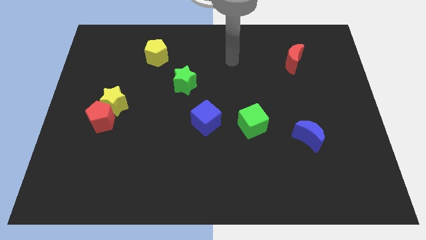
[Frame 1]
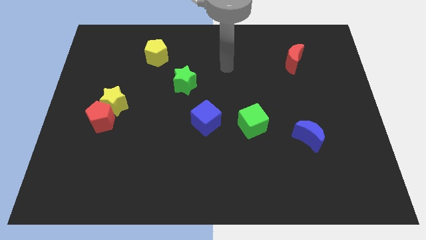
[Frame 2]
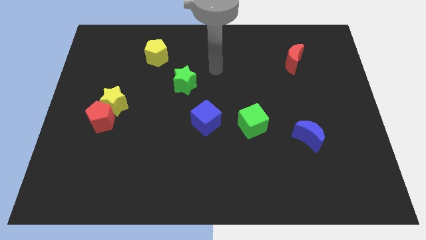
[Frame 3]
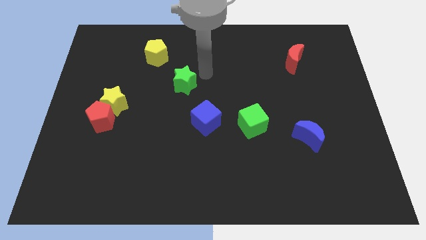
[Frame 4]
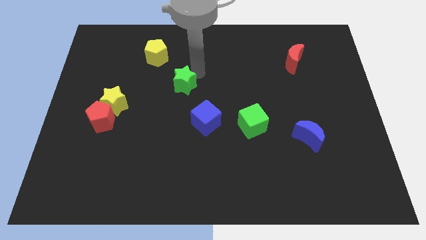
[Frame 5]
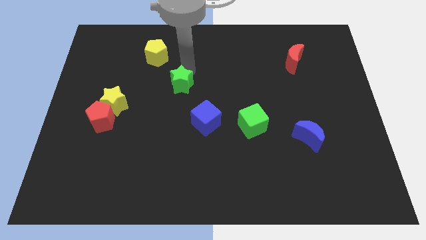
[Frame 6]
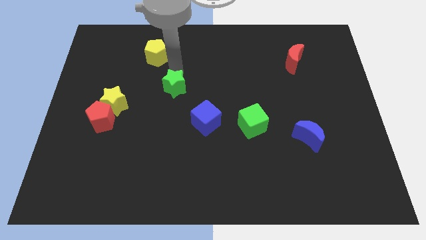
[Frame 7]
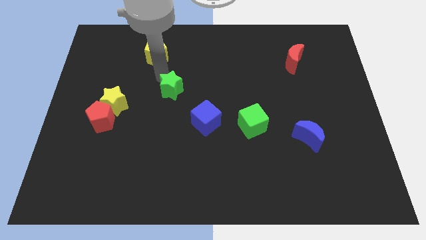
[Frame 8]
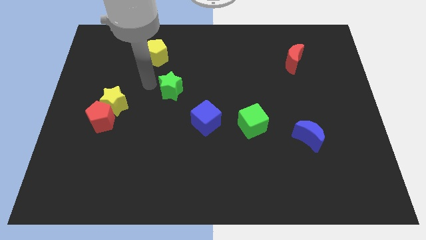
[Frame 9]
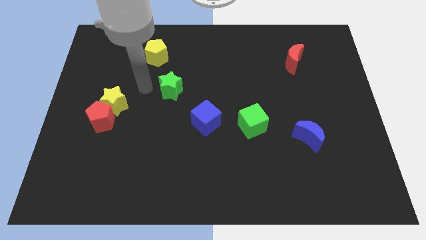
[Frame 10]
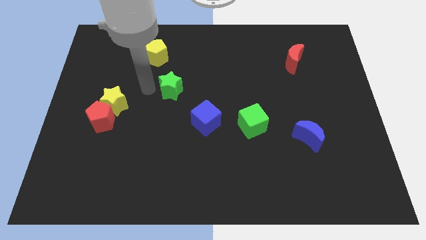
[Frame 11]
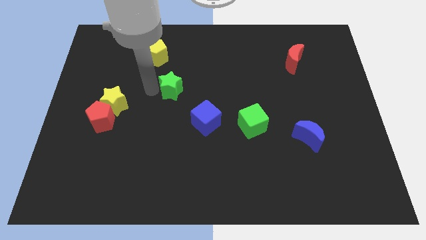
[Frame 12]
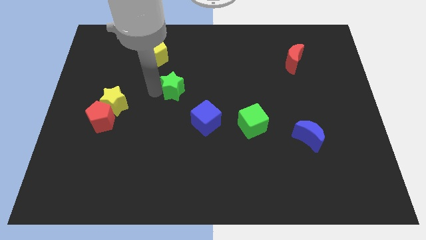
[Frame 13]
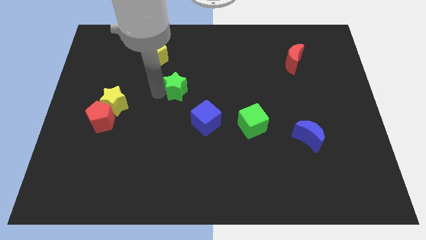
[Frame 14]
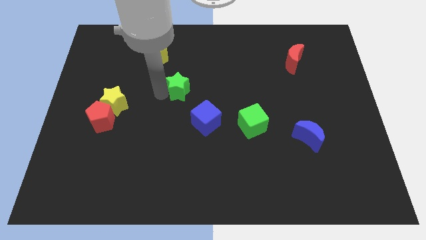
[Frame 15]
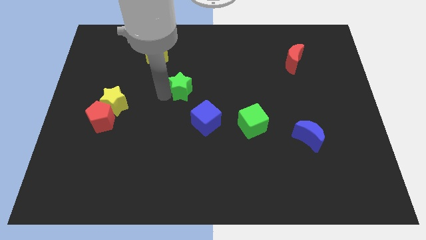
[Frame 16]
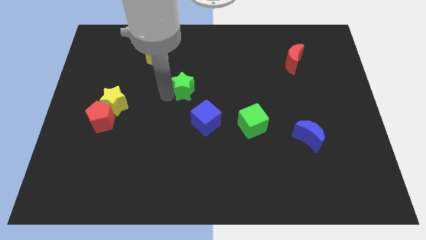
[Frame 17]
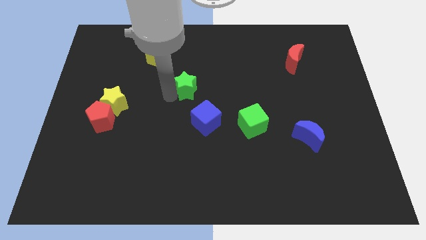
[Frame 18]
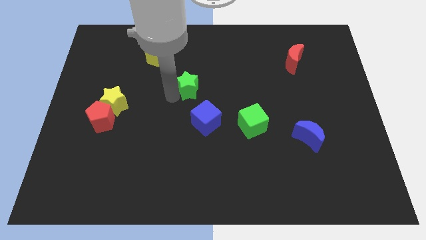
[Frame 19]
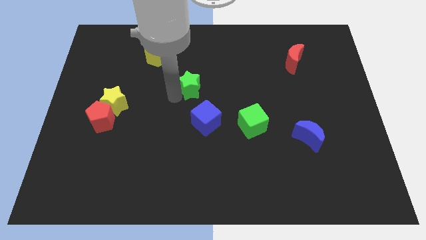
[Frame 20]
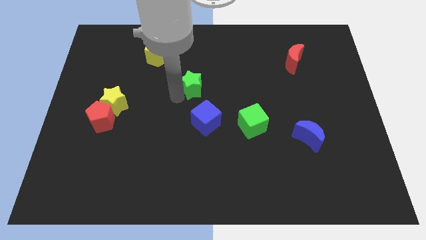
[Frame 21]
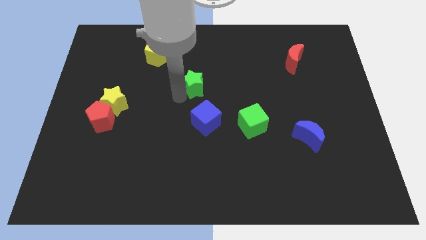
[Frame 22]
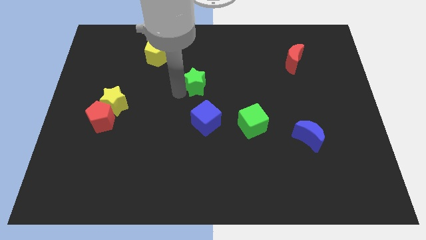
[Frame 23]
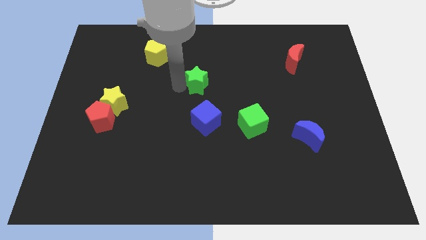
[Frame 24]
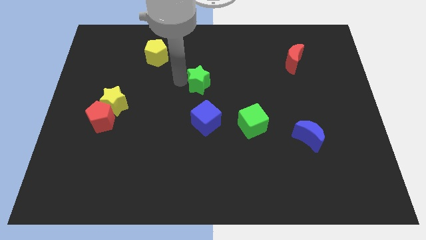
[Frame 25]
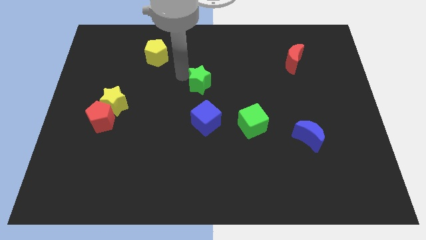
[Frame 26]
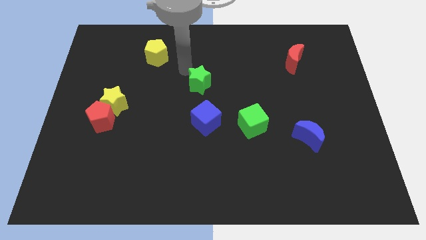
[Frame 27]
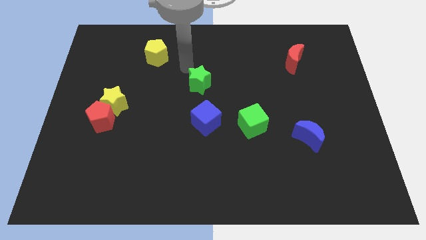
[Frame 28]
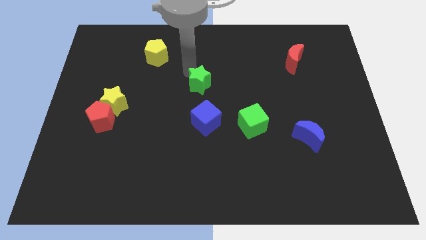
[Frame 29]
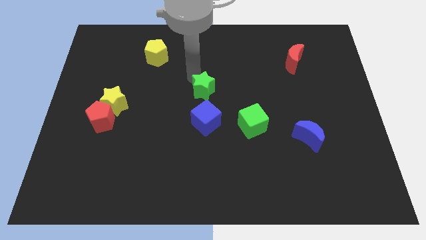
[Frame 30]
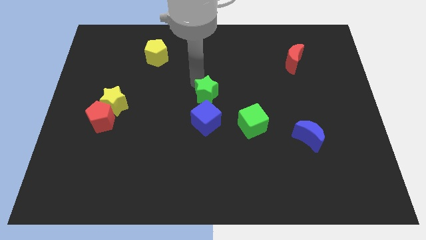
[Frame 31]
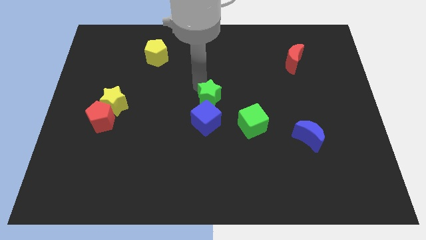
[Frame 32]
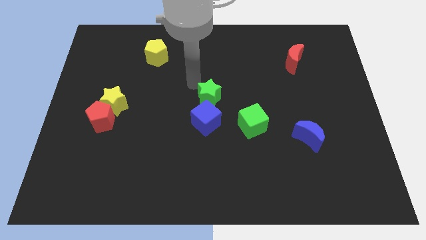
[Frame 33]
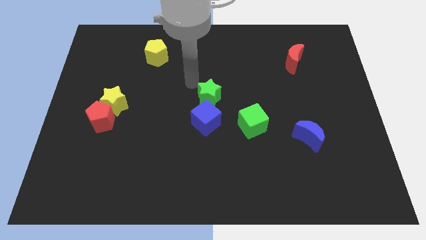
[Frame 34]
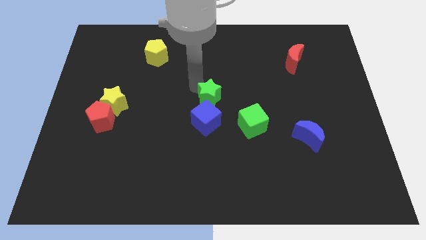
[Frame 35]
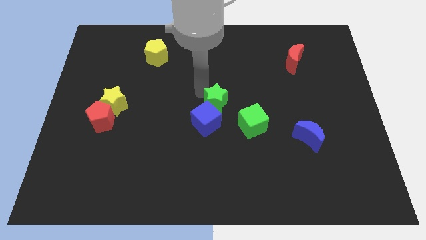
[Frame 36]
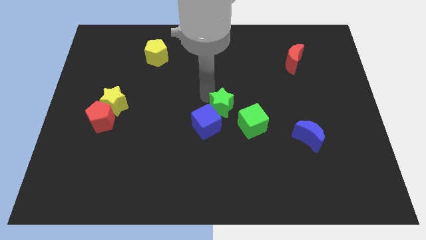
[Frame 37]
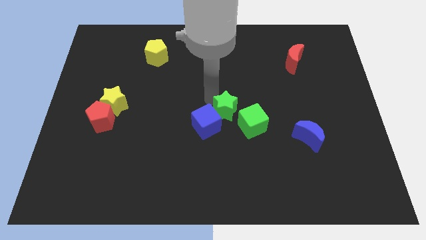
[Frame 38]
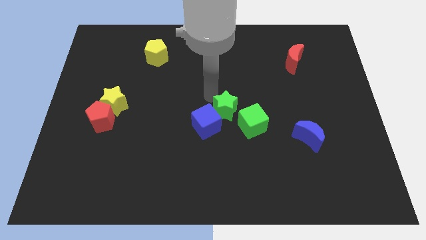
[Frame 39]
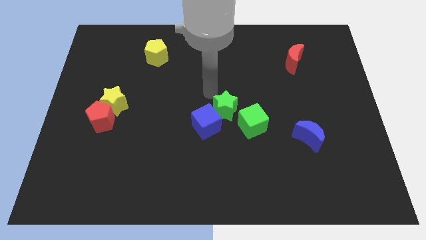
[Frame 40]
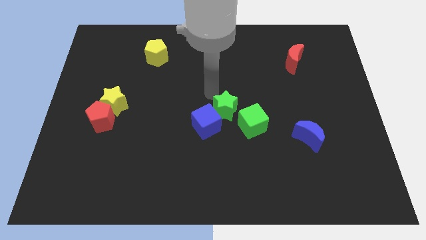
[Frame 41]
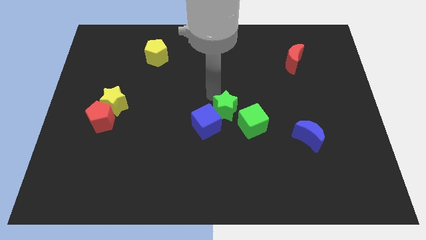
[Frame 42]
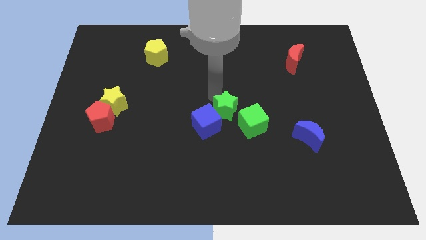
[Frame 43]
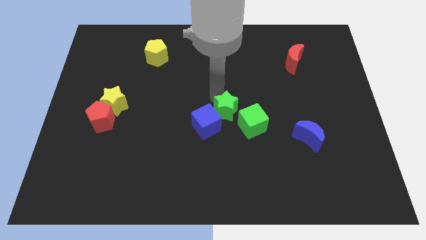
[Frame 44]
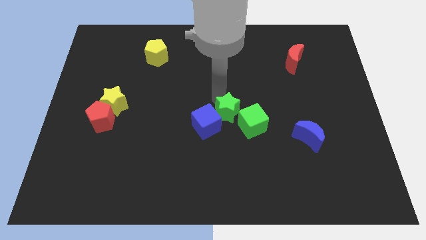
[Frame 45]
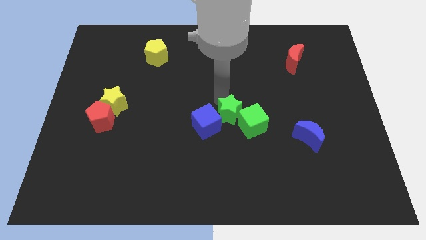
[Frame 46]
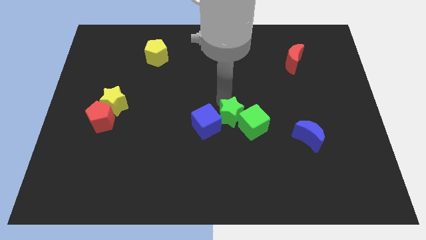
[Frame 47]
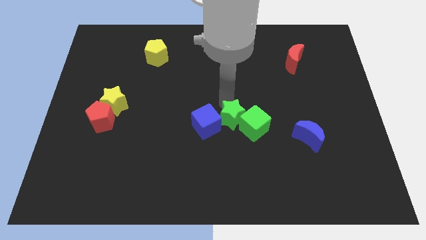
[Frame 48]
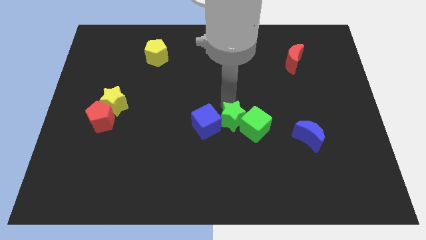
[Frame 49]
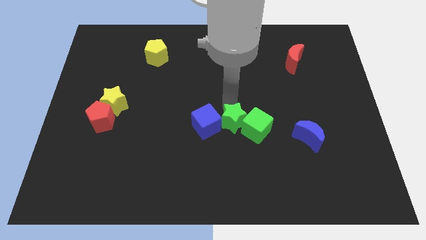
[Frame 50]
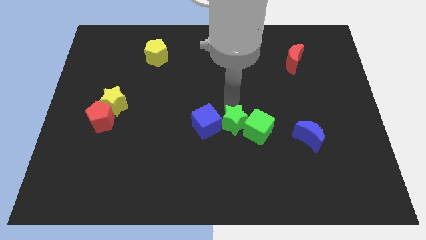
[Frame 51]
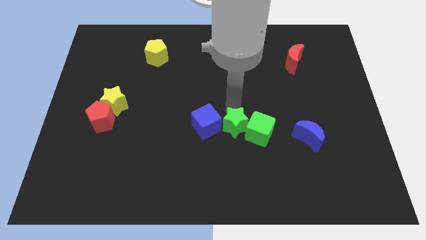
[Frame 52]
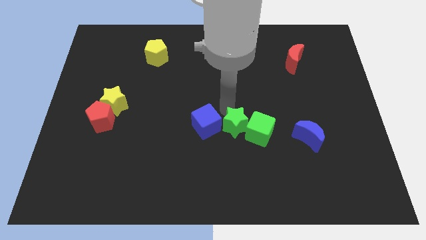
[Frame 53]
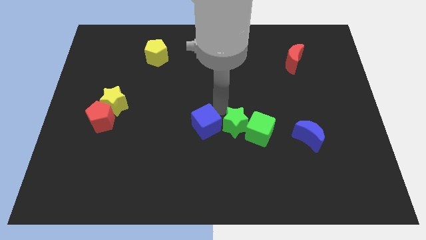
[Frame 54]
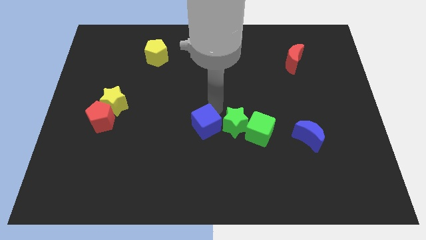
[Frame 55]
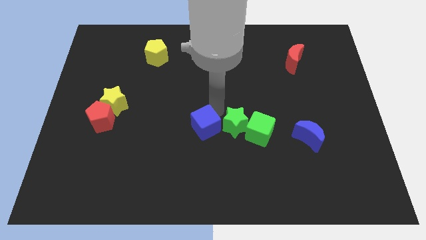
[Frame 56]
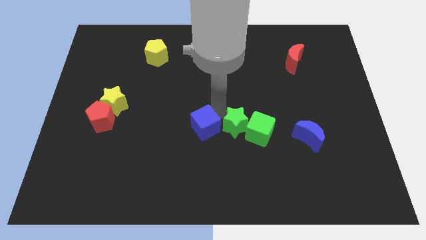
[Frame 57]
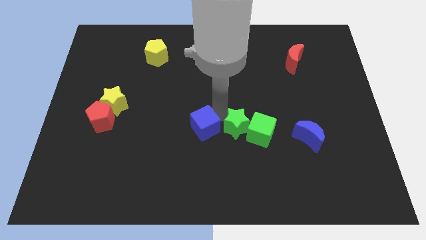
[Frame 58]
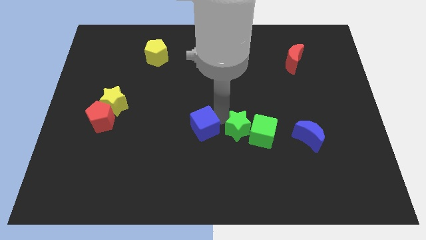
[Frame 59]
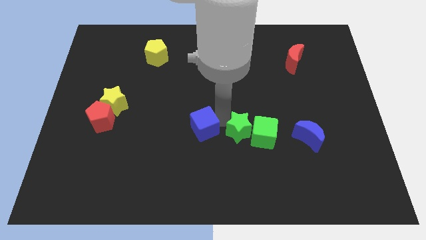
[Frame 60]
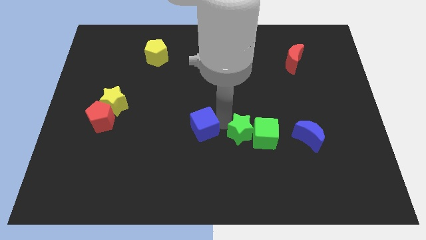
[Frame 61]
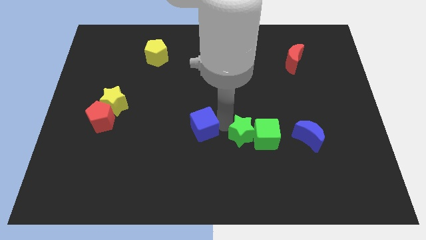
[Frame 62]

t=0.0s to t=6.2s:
slide the green star down and to the right

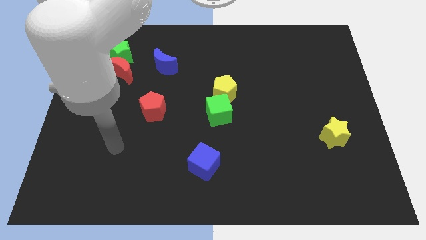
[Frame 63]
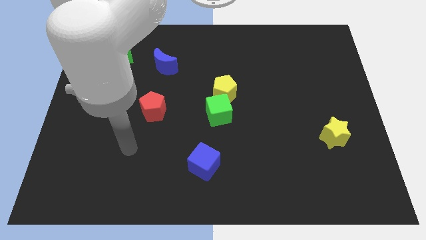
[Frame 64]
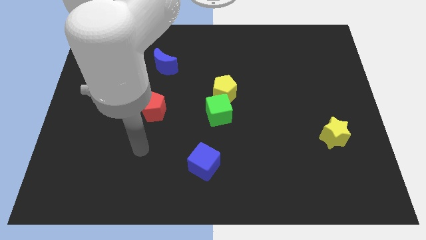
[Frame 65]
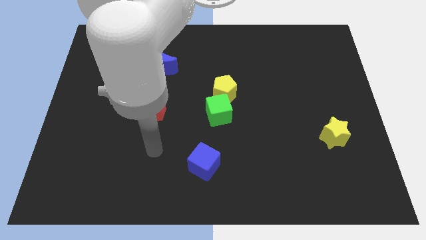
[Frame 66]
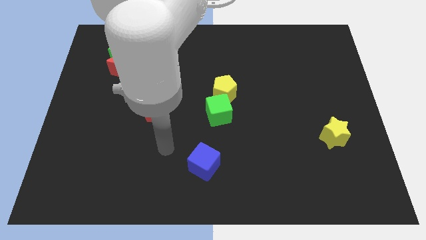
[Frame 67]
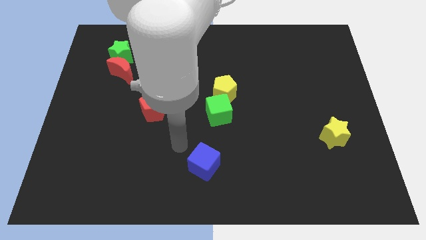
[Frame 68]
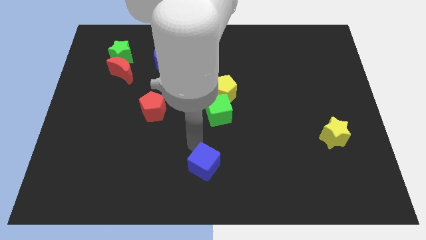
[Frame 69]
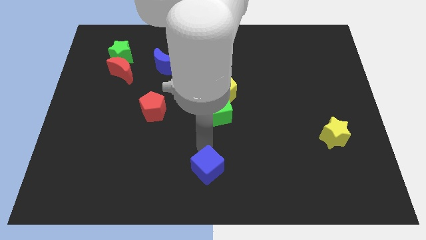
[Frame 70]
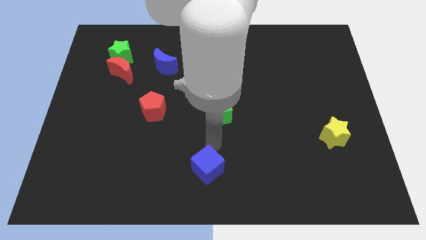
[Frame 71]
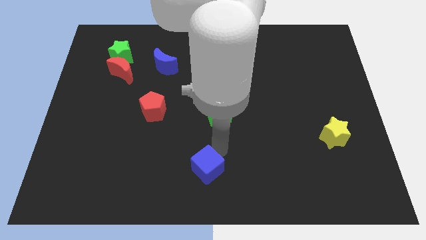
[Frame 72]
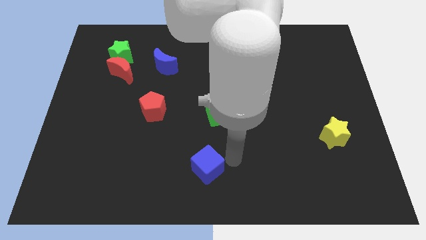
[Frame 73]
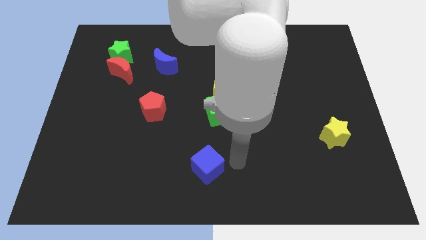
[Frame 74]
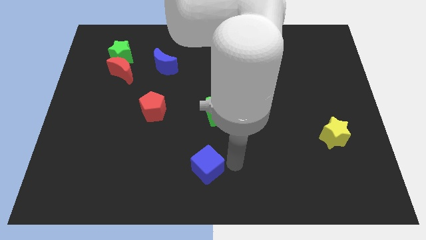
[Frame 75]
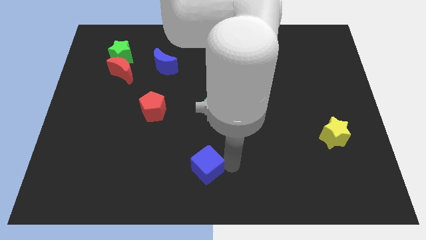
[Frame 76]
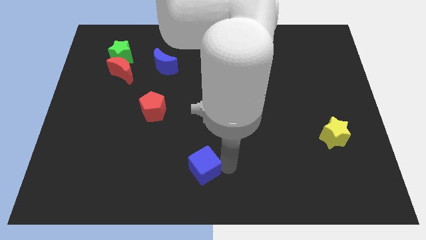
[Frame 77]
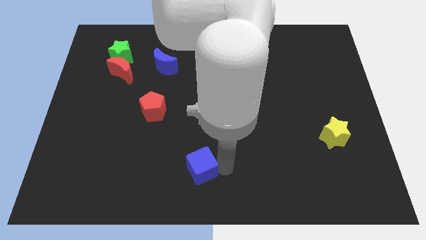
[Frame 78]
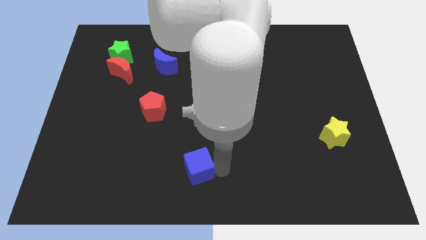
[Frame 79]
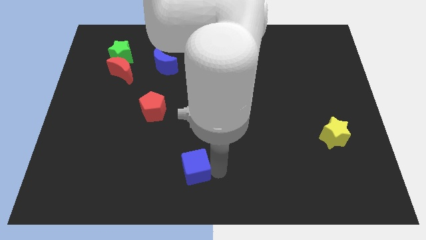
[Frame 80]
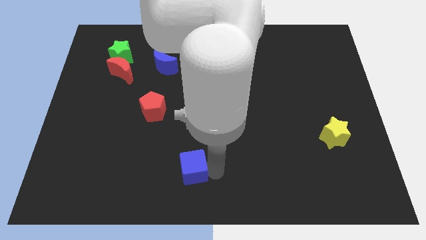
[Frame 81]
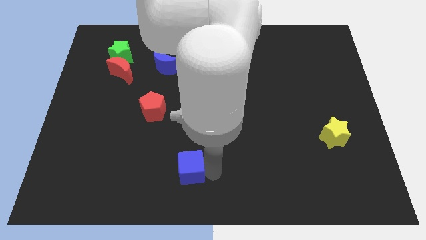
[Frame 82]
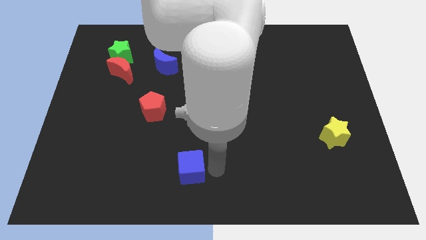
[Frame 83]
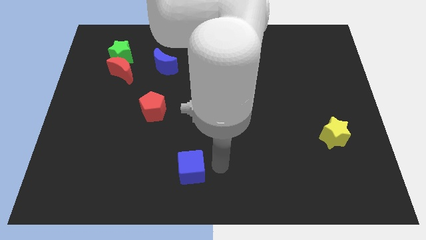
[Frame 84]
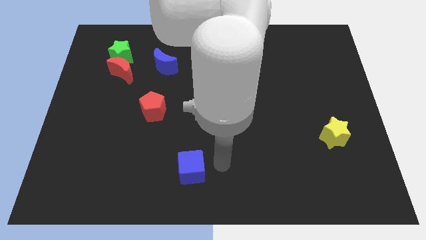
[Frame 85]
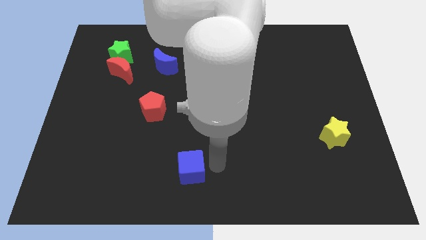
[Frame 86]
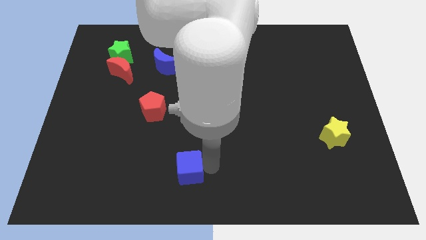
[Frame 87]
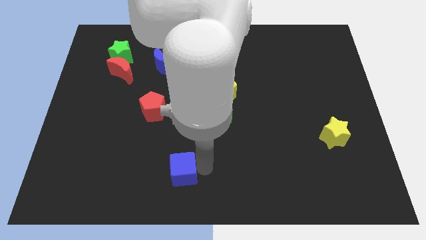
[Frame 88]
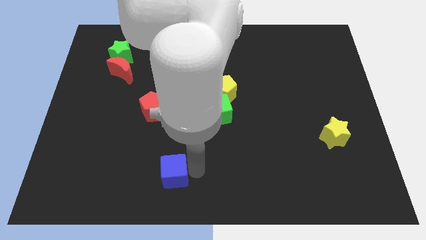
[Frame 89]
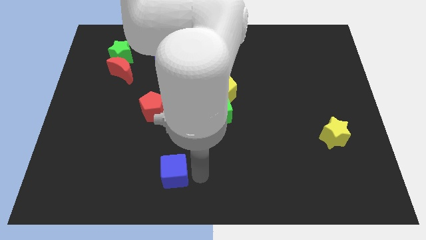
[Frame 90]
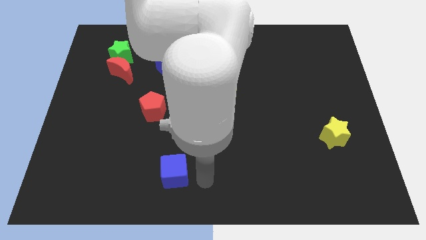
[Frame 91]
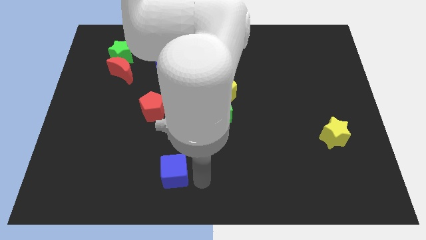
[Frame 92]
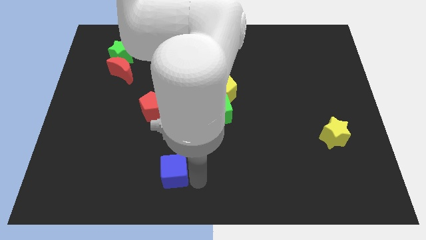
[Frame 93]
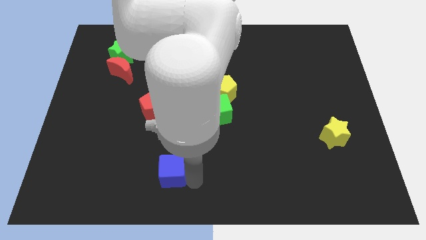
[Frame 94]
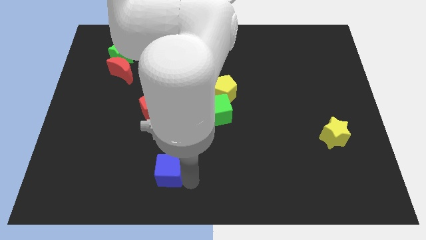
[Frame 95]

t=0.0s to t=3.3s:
slightly slide the blue cube to the left
